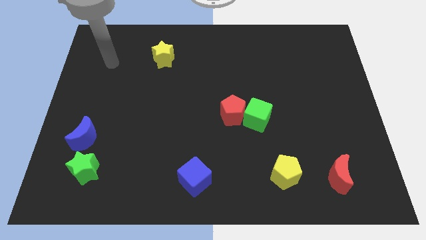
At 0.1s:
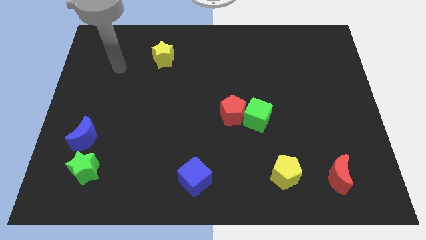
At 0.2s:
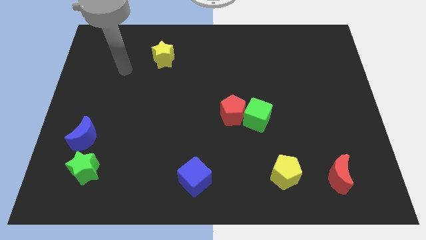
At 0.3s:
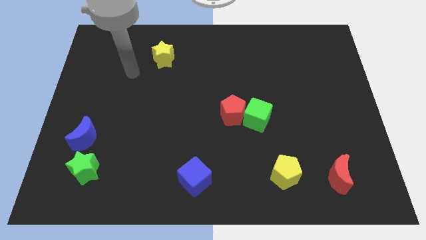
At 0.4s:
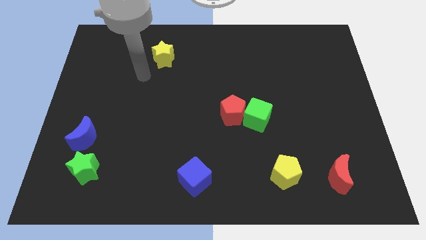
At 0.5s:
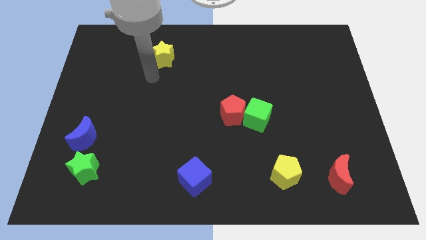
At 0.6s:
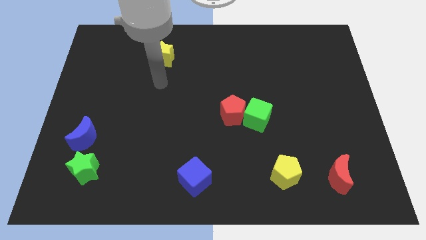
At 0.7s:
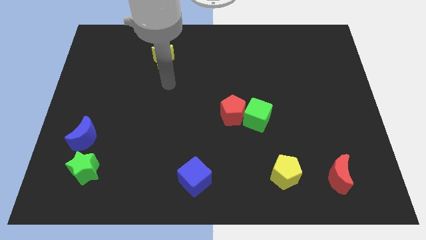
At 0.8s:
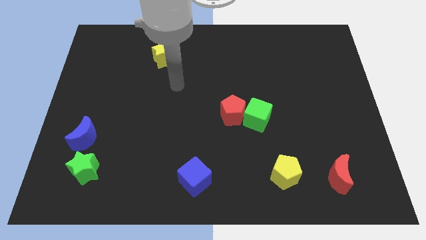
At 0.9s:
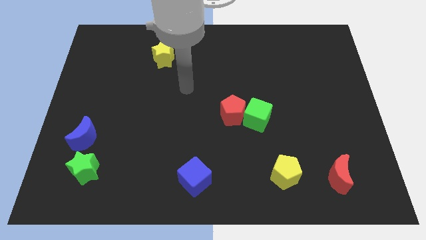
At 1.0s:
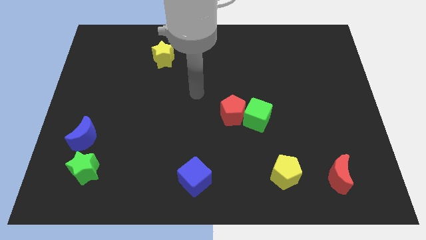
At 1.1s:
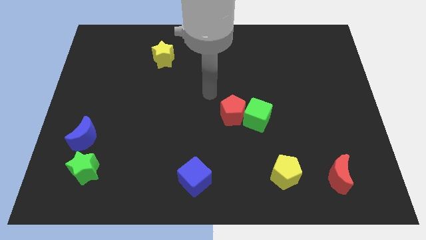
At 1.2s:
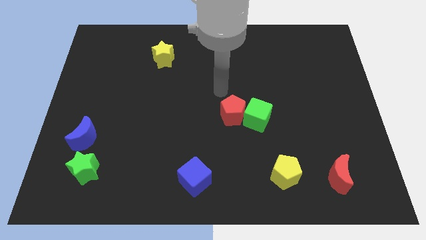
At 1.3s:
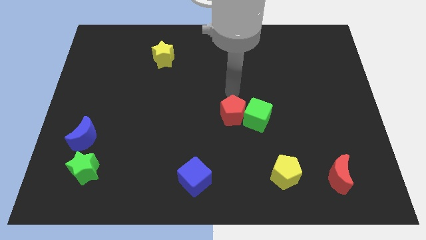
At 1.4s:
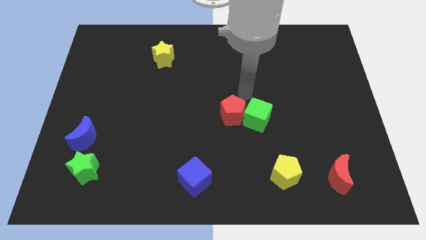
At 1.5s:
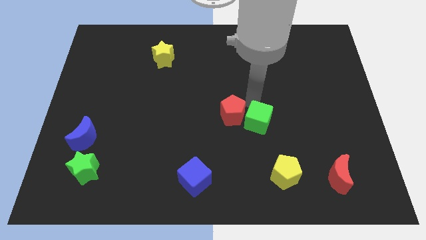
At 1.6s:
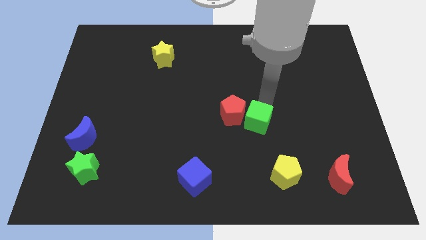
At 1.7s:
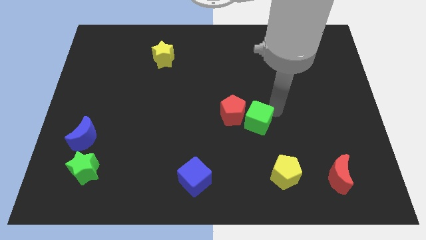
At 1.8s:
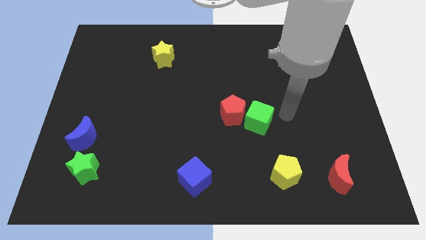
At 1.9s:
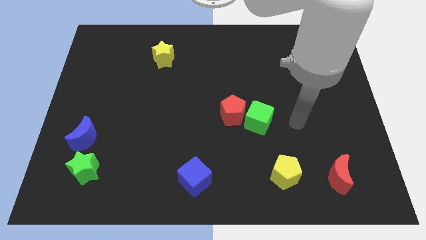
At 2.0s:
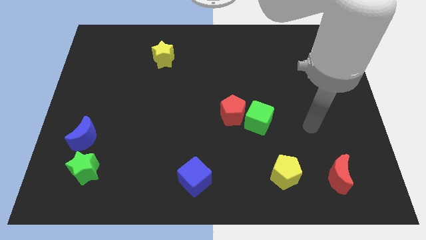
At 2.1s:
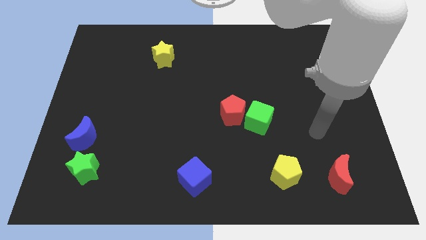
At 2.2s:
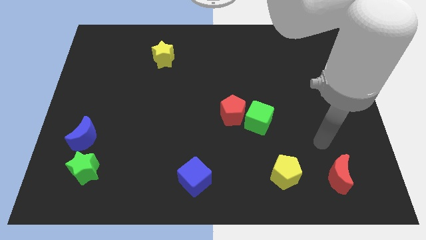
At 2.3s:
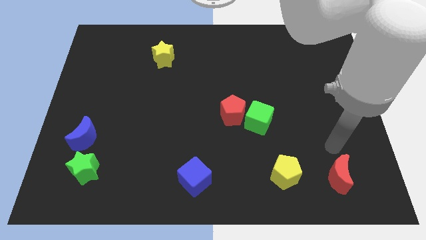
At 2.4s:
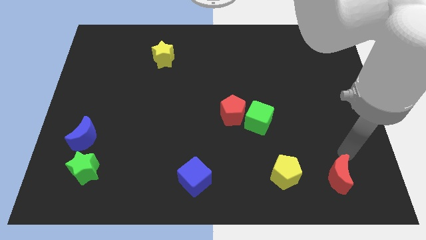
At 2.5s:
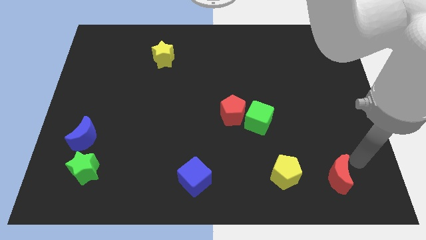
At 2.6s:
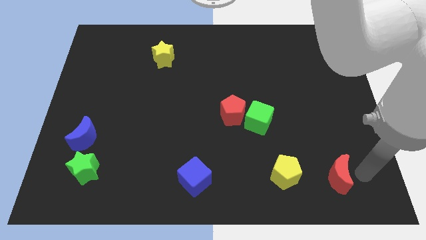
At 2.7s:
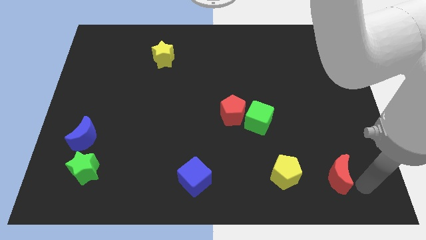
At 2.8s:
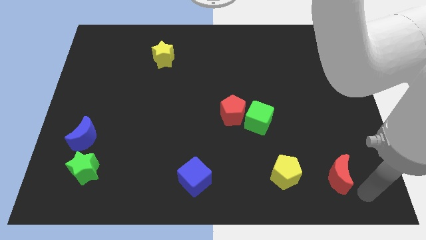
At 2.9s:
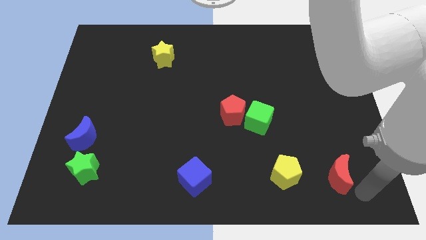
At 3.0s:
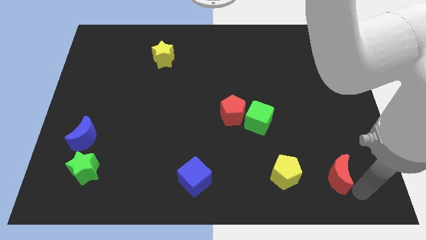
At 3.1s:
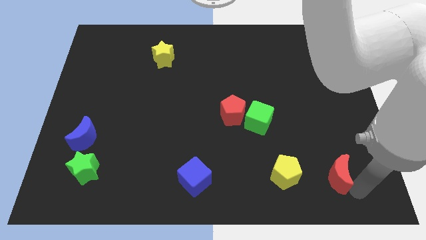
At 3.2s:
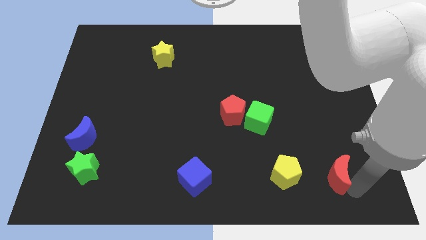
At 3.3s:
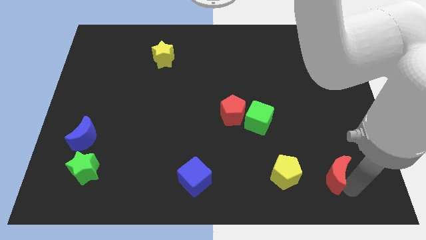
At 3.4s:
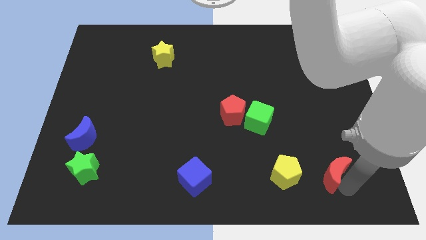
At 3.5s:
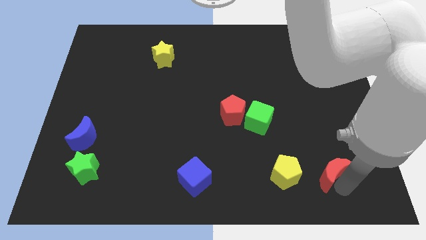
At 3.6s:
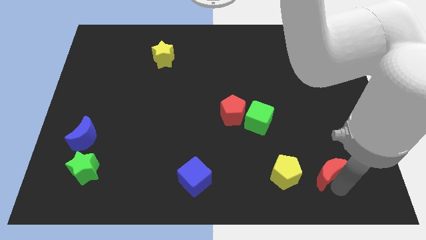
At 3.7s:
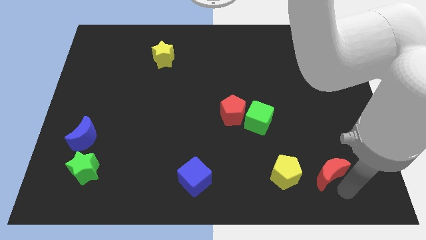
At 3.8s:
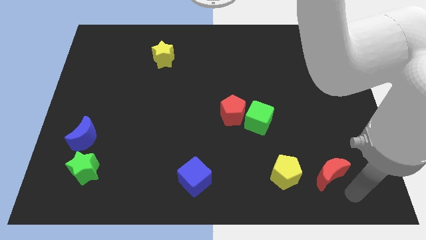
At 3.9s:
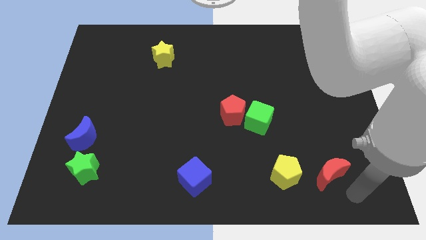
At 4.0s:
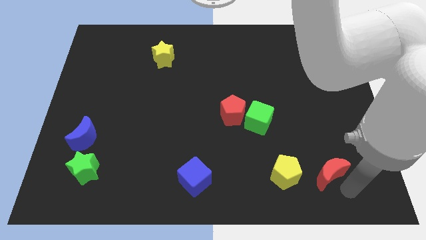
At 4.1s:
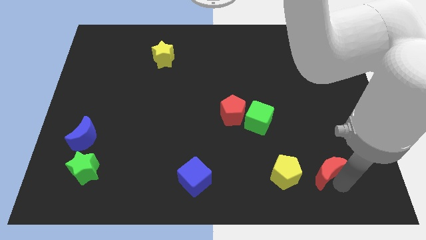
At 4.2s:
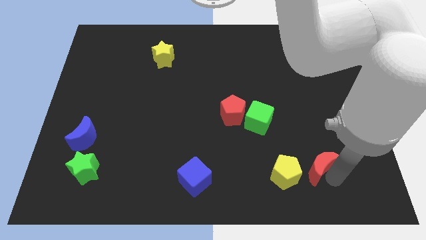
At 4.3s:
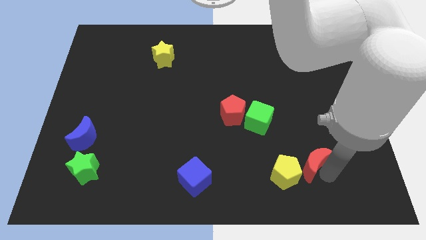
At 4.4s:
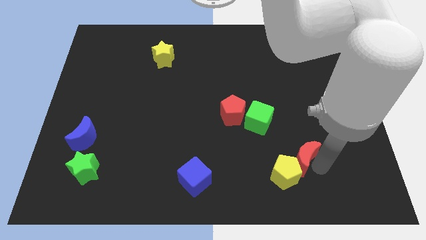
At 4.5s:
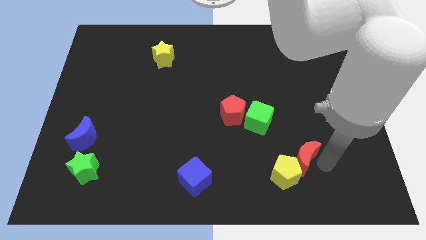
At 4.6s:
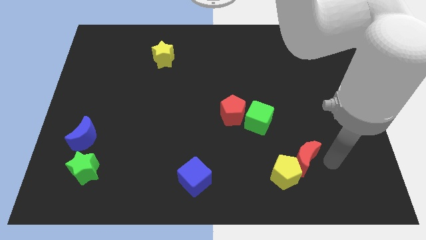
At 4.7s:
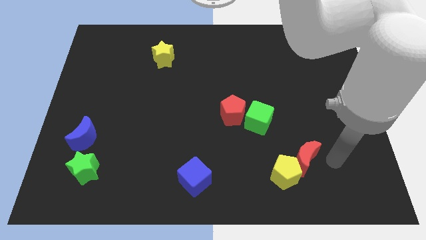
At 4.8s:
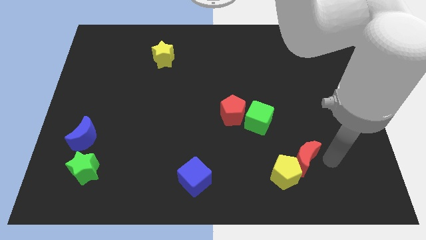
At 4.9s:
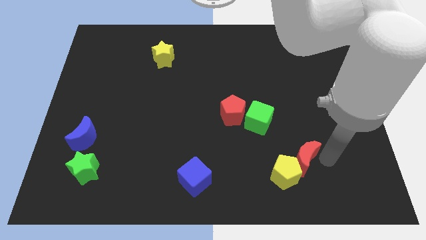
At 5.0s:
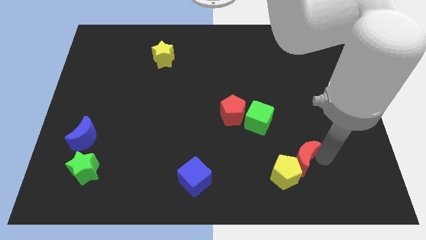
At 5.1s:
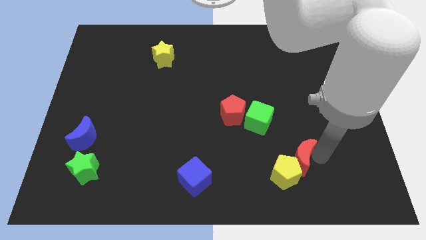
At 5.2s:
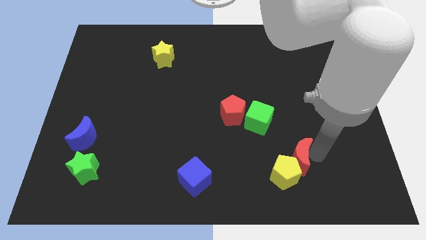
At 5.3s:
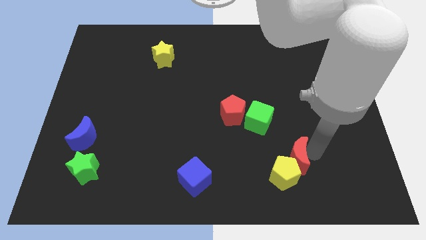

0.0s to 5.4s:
slightly push the red moon to the left

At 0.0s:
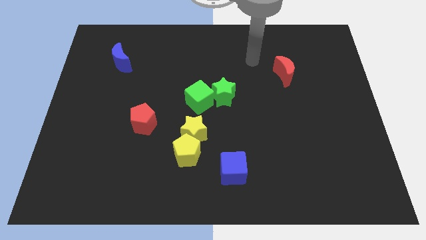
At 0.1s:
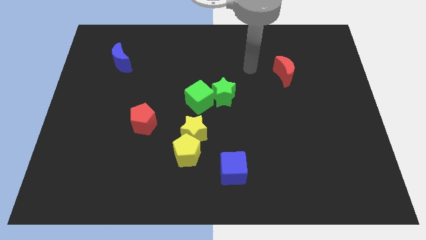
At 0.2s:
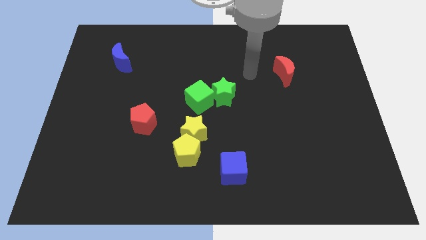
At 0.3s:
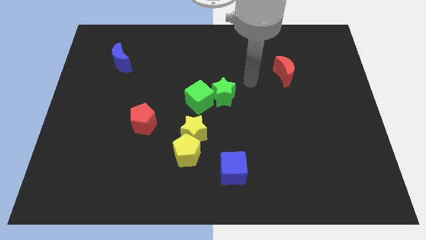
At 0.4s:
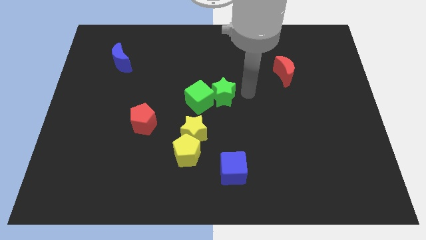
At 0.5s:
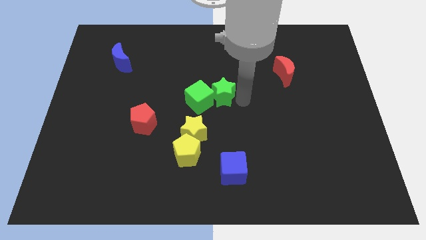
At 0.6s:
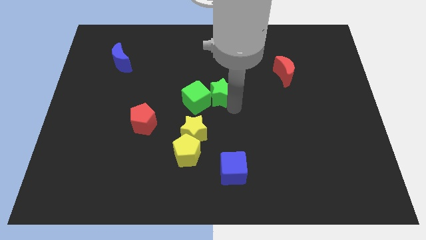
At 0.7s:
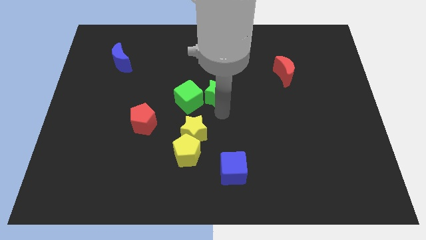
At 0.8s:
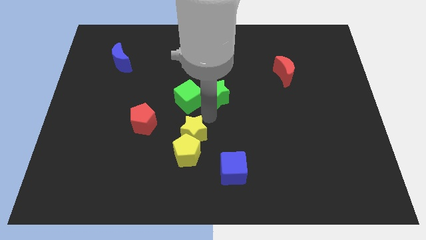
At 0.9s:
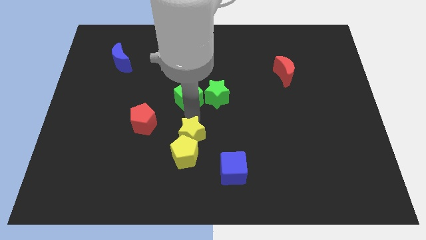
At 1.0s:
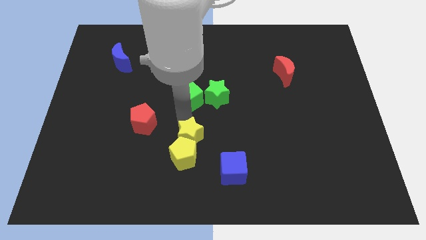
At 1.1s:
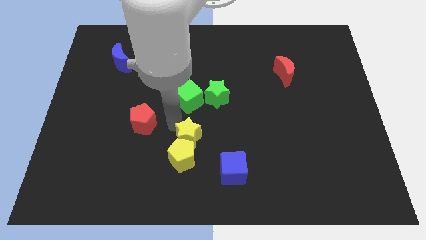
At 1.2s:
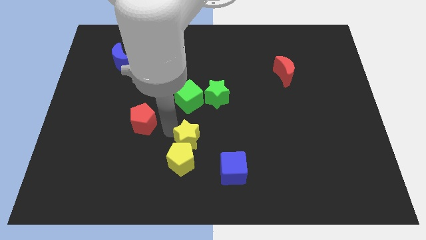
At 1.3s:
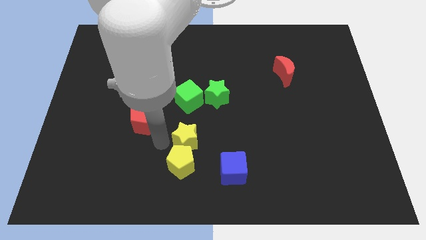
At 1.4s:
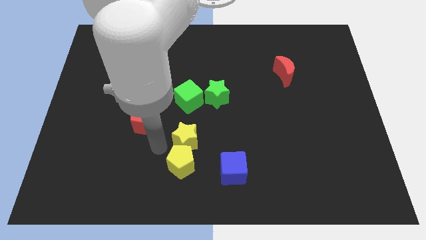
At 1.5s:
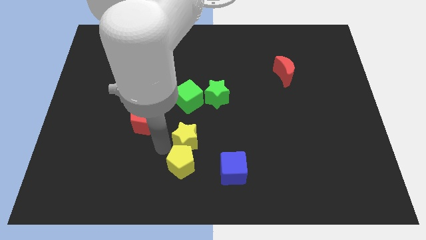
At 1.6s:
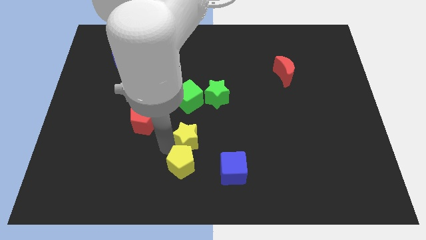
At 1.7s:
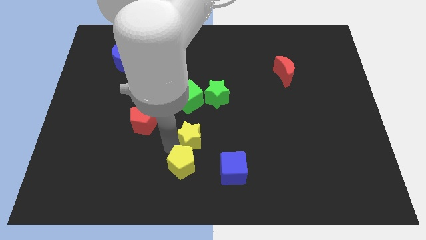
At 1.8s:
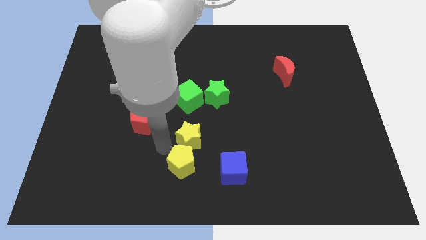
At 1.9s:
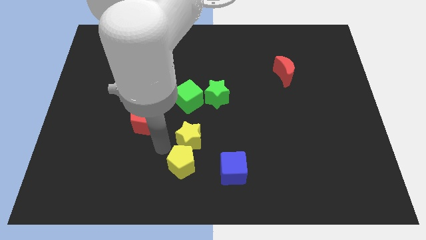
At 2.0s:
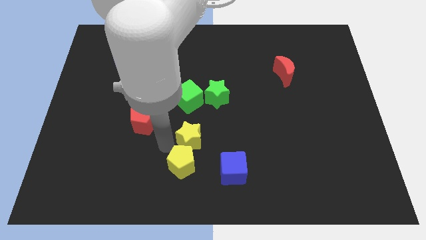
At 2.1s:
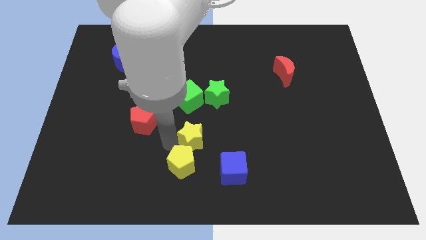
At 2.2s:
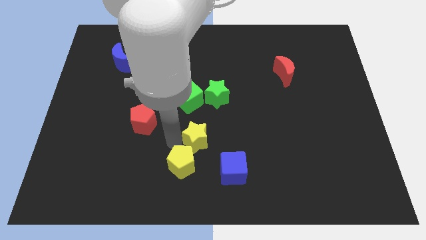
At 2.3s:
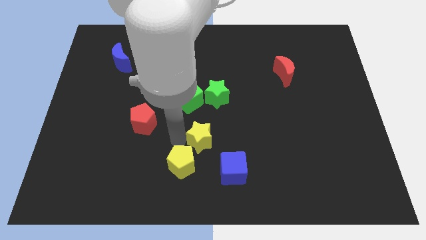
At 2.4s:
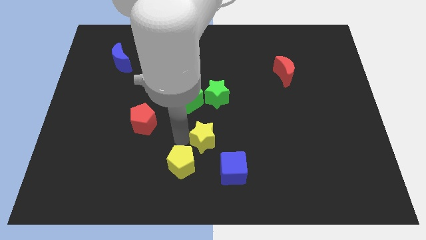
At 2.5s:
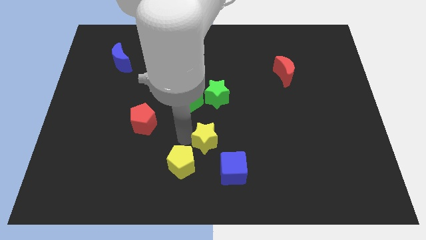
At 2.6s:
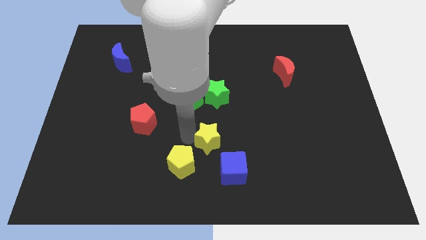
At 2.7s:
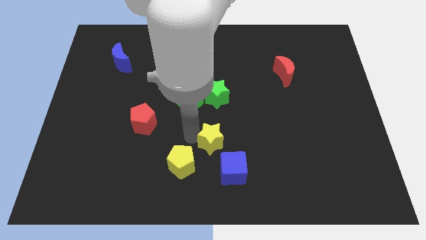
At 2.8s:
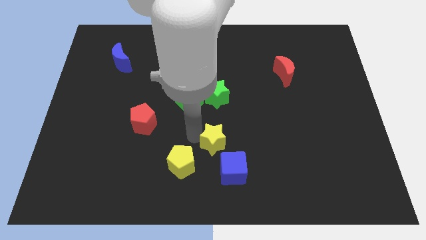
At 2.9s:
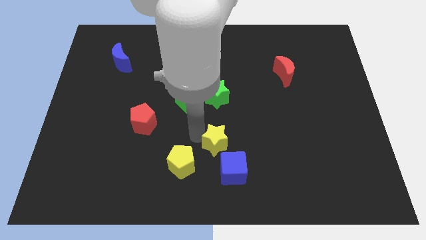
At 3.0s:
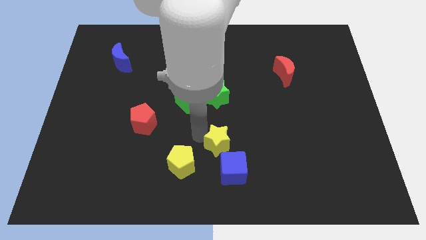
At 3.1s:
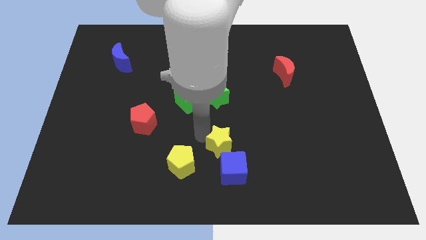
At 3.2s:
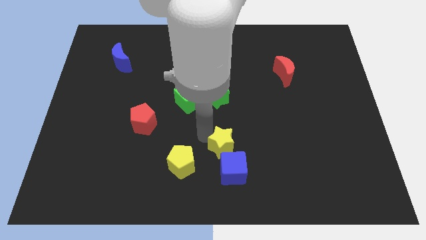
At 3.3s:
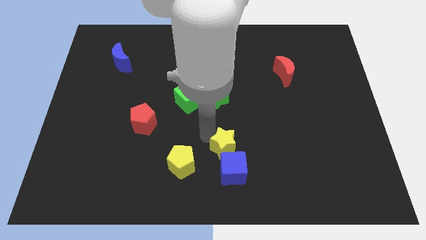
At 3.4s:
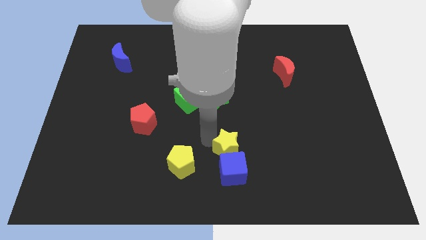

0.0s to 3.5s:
slide the yellow star a bit right
